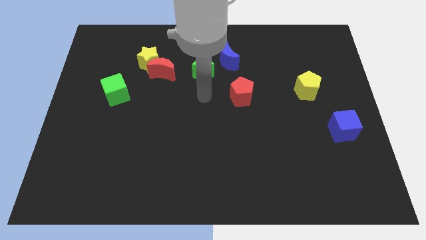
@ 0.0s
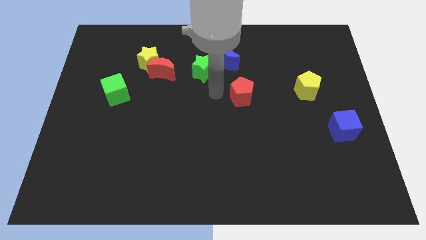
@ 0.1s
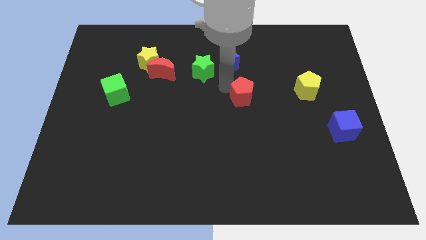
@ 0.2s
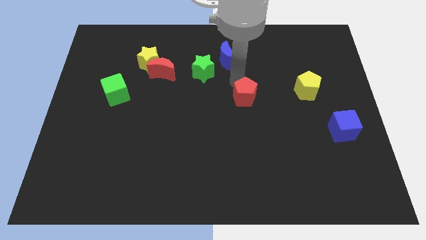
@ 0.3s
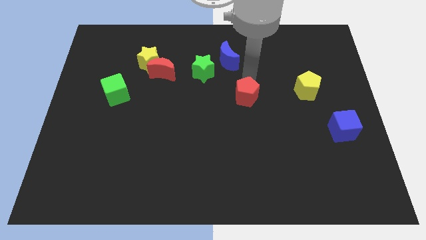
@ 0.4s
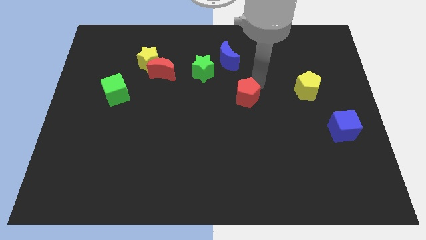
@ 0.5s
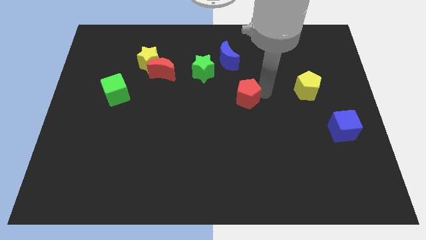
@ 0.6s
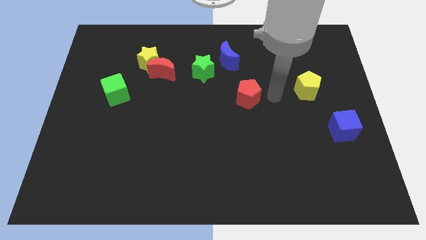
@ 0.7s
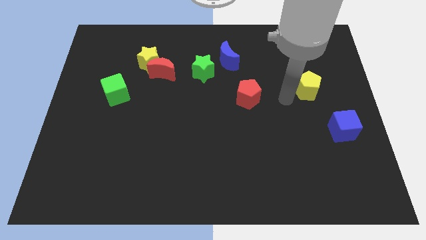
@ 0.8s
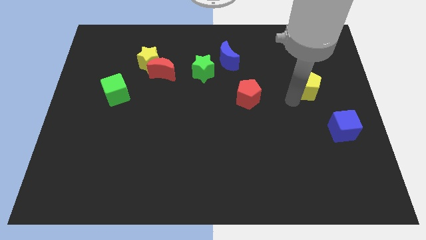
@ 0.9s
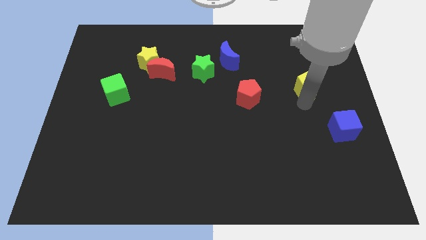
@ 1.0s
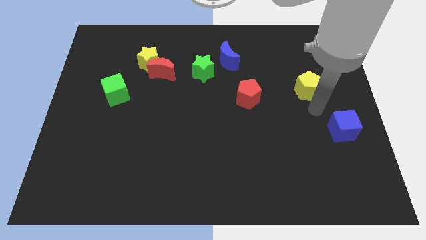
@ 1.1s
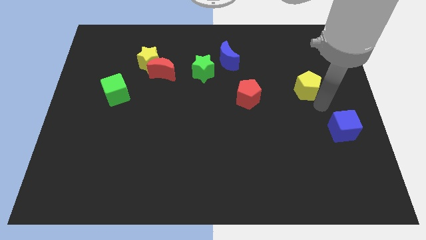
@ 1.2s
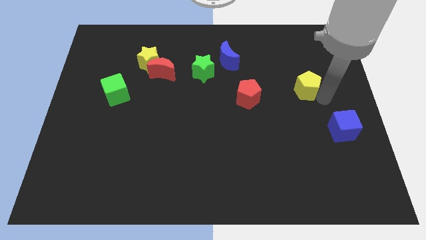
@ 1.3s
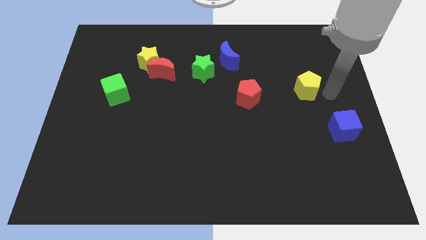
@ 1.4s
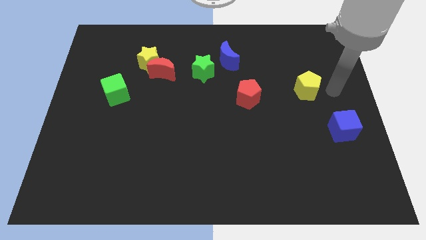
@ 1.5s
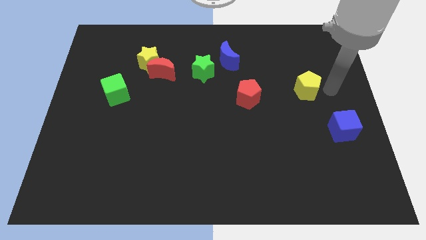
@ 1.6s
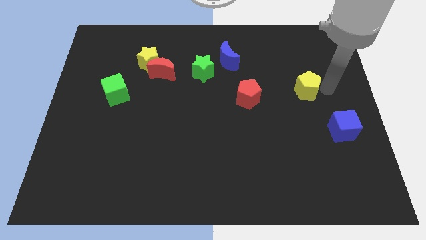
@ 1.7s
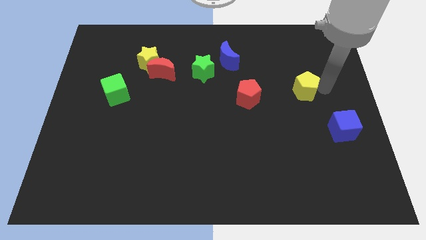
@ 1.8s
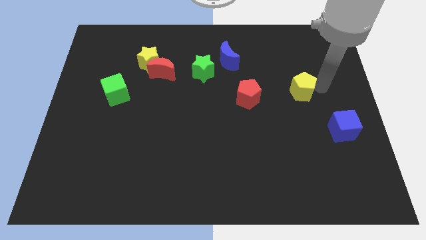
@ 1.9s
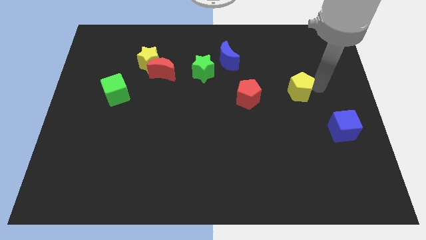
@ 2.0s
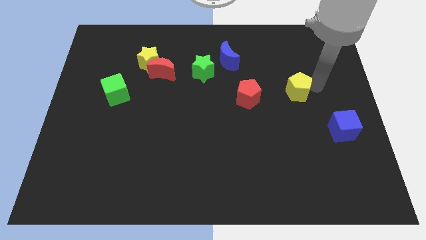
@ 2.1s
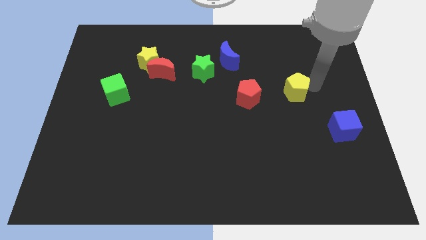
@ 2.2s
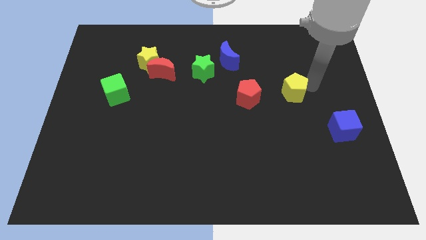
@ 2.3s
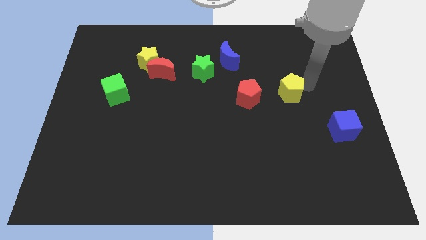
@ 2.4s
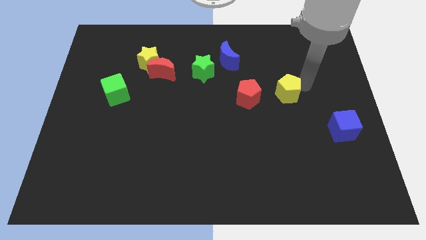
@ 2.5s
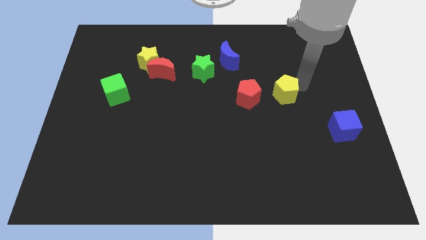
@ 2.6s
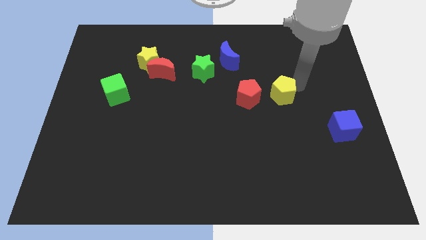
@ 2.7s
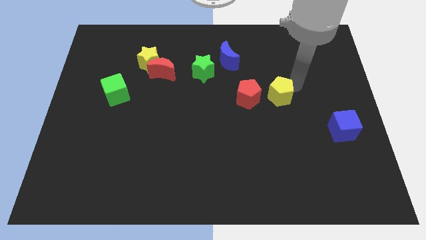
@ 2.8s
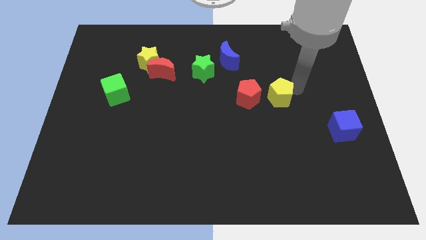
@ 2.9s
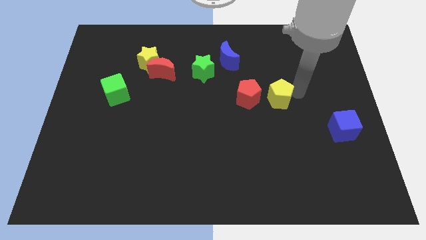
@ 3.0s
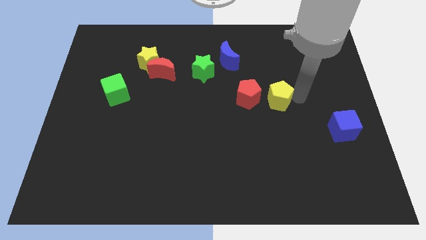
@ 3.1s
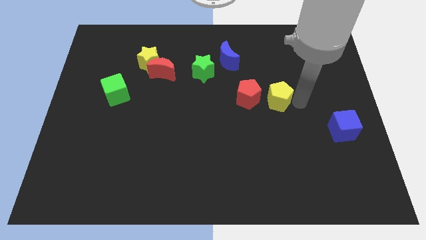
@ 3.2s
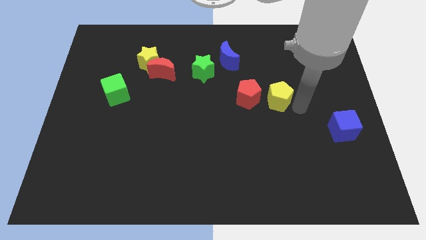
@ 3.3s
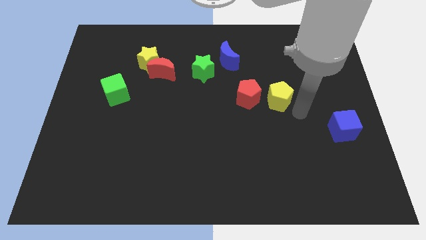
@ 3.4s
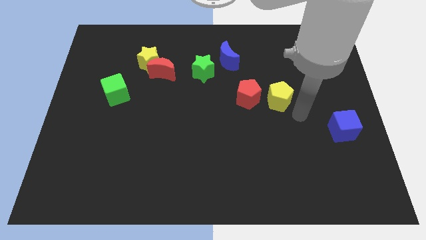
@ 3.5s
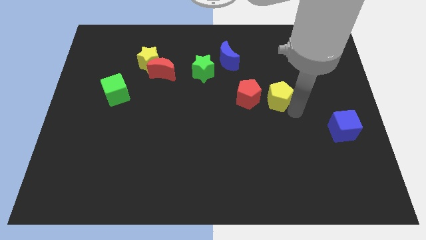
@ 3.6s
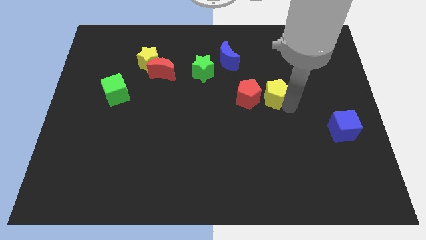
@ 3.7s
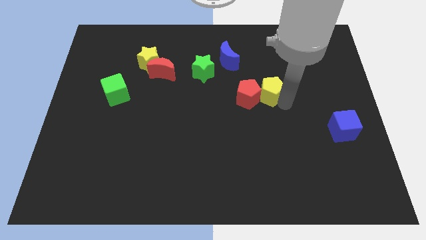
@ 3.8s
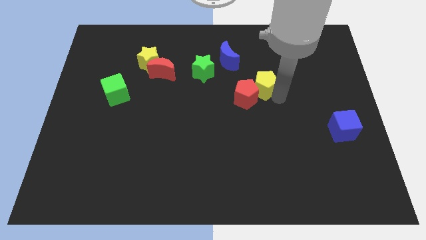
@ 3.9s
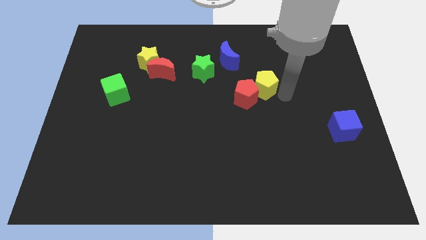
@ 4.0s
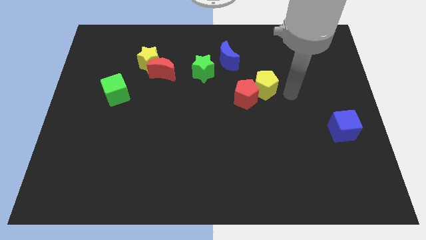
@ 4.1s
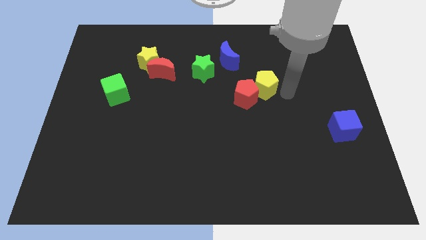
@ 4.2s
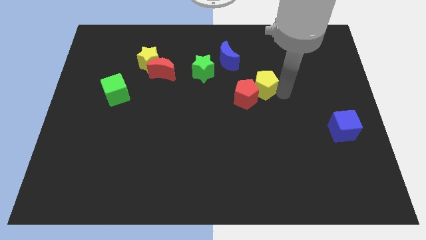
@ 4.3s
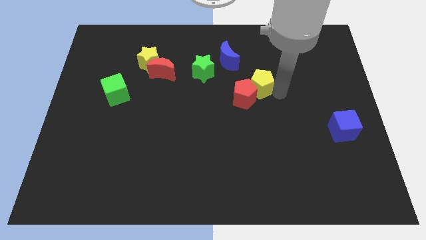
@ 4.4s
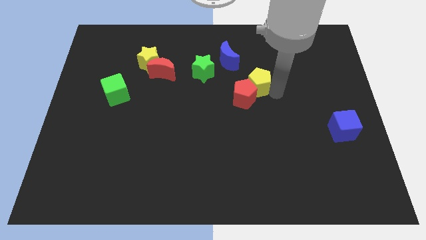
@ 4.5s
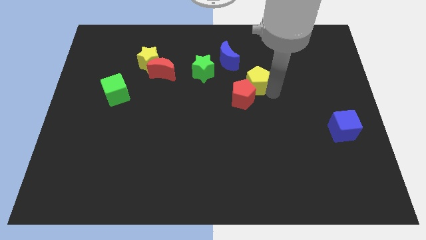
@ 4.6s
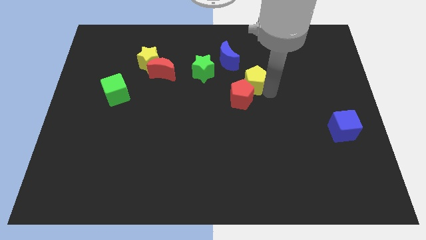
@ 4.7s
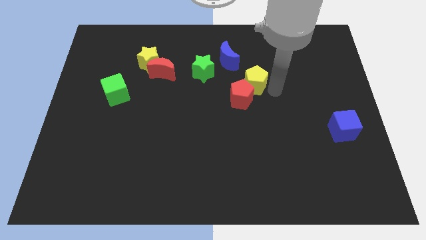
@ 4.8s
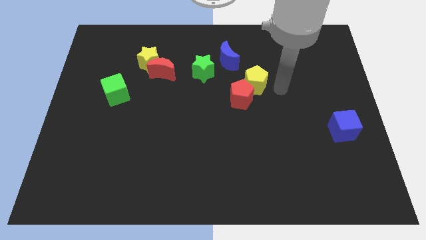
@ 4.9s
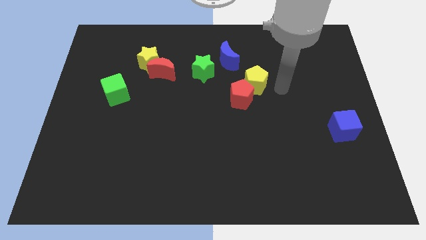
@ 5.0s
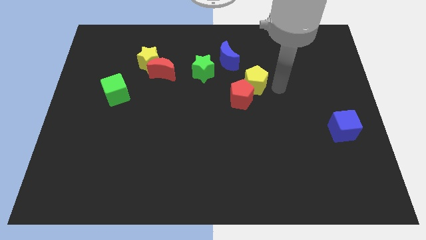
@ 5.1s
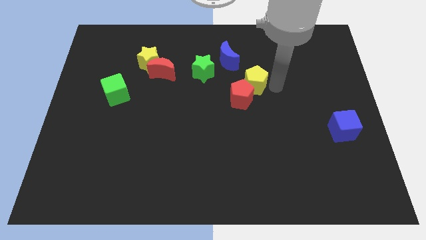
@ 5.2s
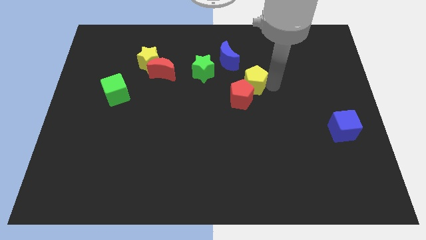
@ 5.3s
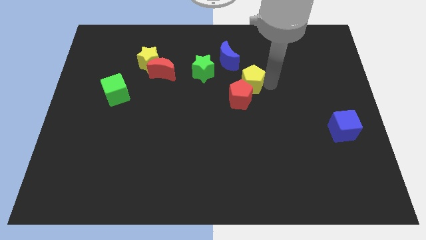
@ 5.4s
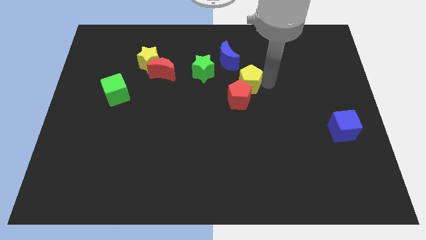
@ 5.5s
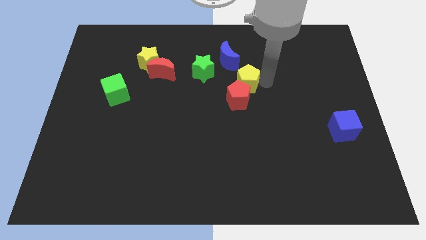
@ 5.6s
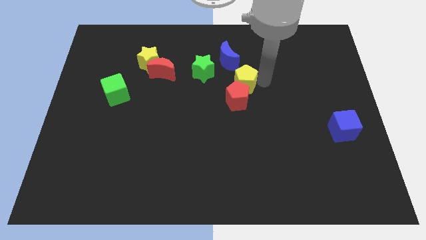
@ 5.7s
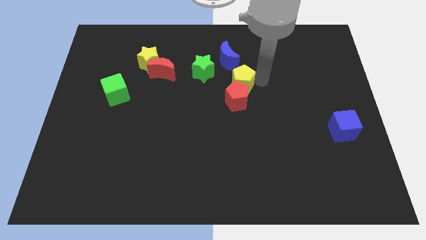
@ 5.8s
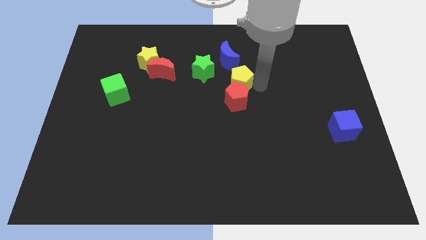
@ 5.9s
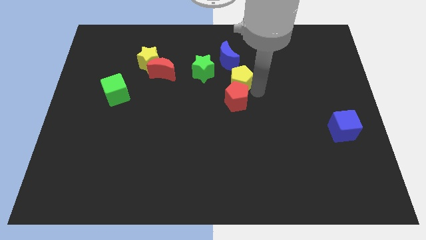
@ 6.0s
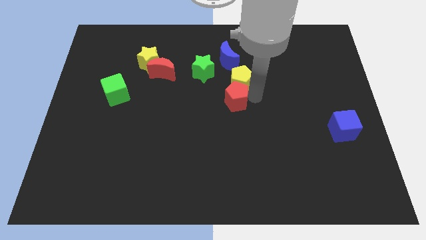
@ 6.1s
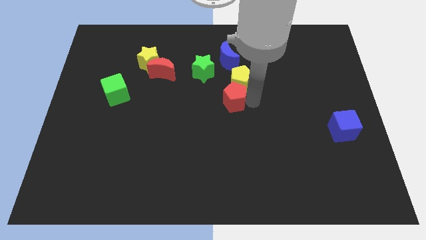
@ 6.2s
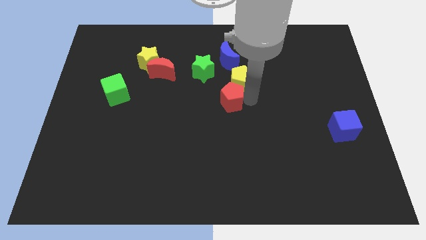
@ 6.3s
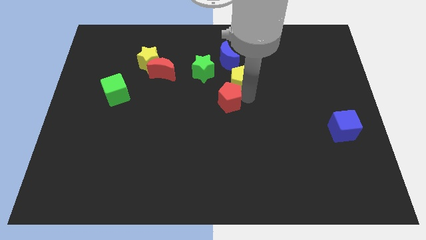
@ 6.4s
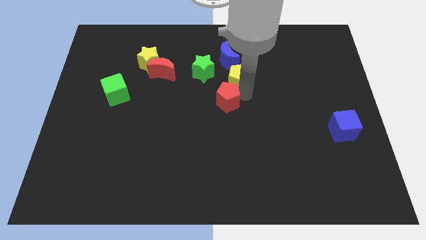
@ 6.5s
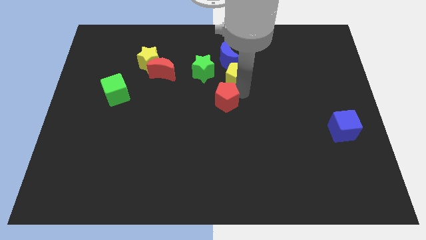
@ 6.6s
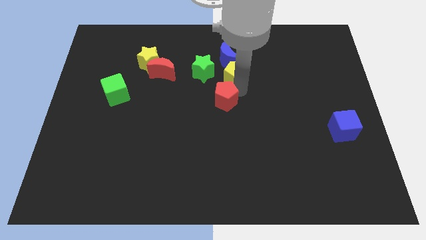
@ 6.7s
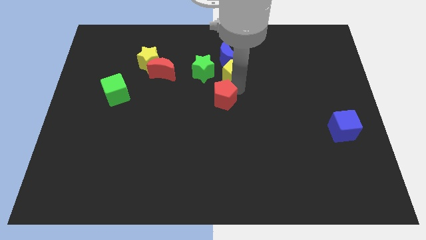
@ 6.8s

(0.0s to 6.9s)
put the yellow pentagon to the blue moon
